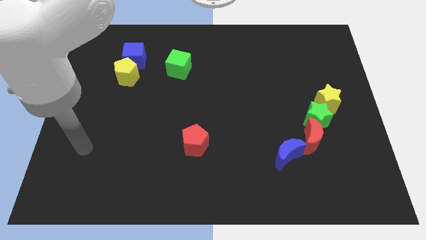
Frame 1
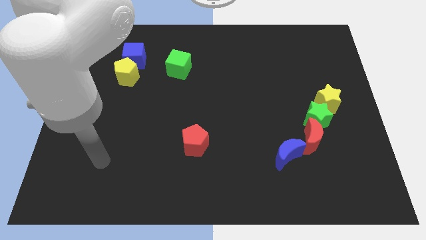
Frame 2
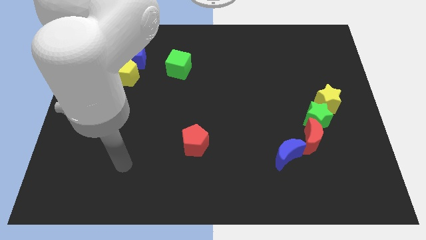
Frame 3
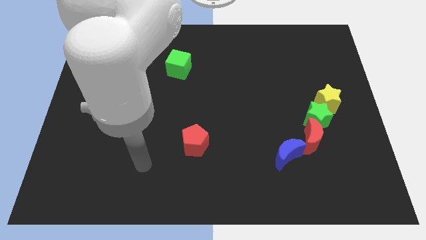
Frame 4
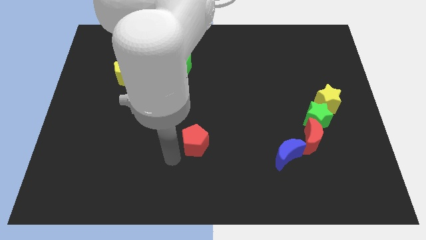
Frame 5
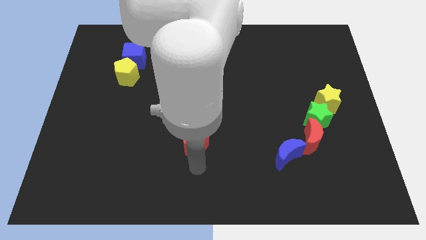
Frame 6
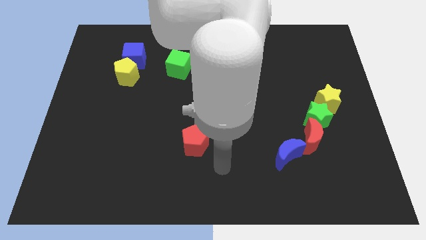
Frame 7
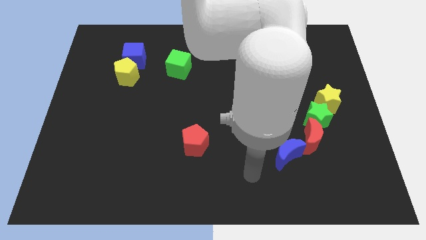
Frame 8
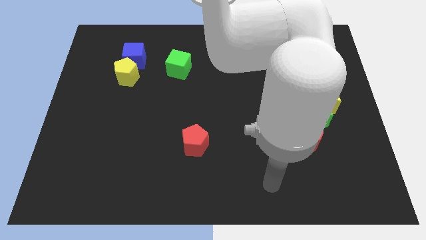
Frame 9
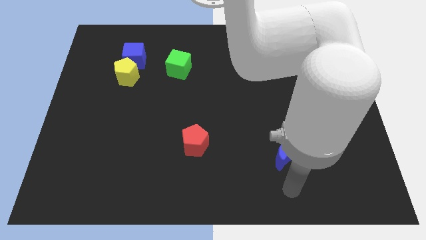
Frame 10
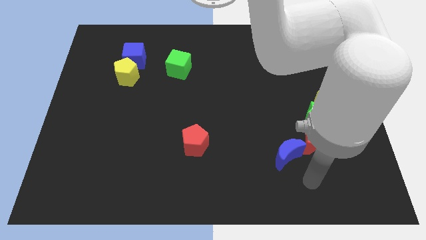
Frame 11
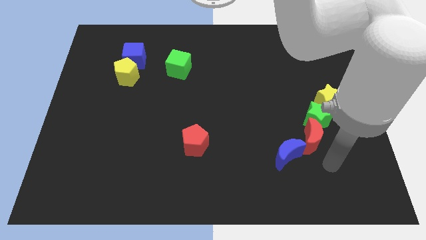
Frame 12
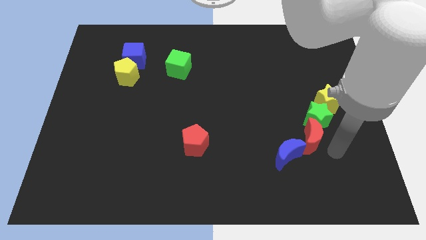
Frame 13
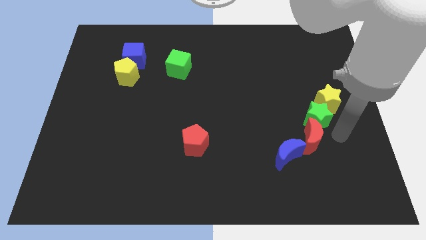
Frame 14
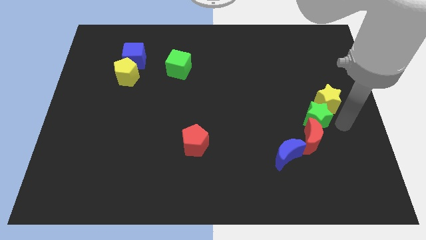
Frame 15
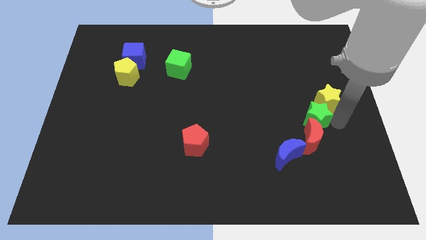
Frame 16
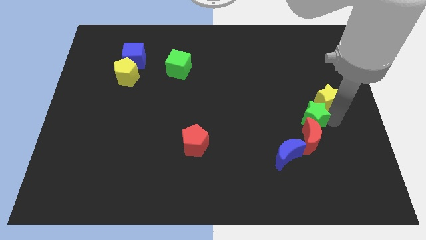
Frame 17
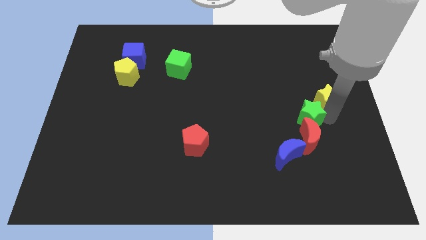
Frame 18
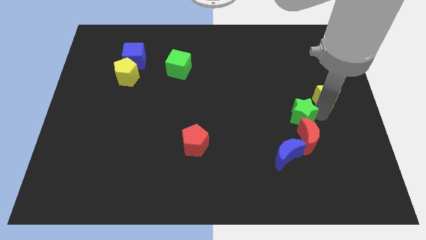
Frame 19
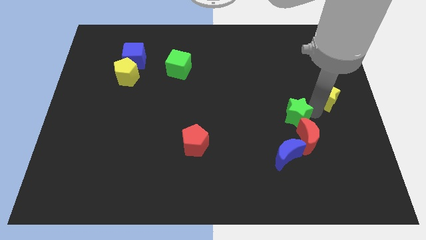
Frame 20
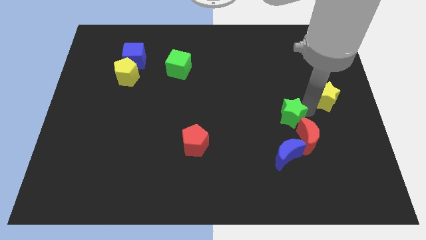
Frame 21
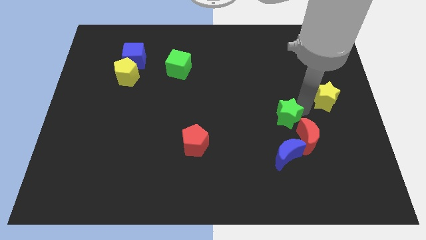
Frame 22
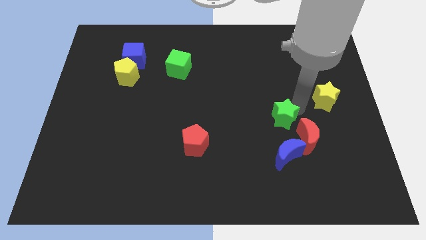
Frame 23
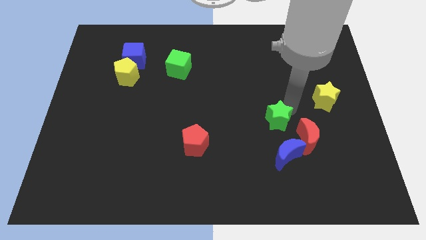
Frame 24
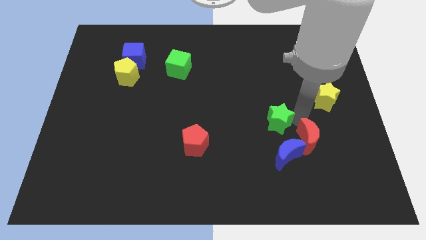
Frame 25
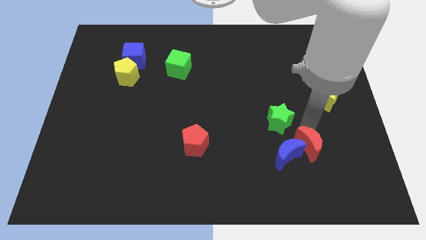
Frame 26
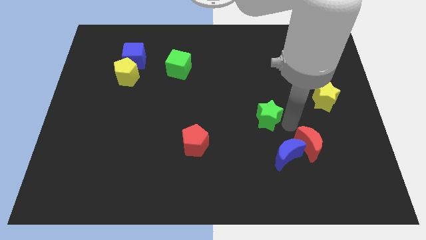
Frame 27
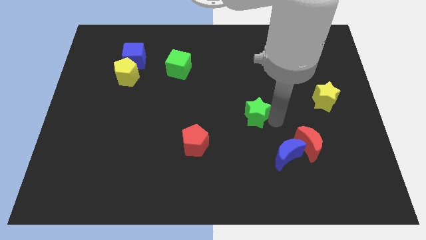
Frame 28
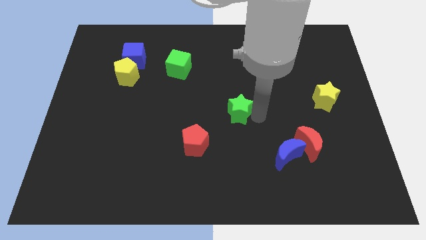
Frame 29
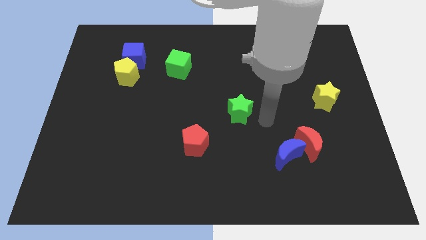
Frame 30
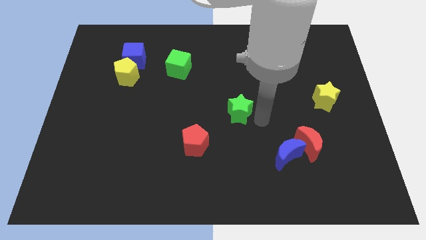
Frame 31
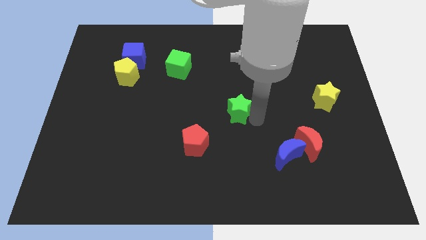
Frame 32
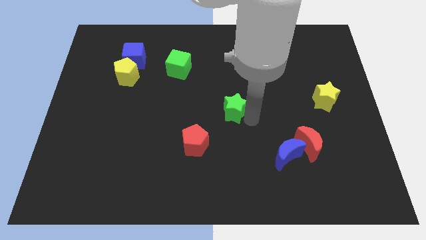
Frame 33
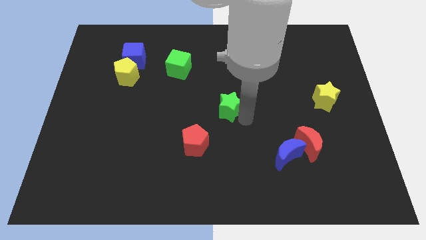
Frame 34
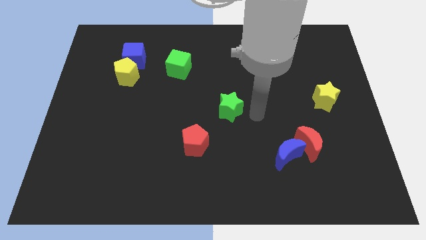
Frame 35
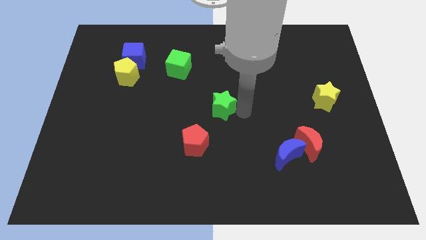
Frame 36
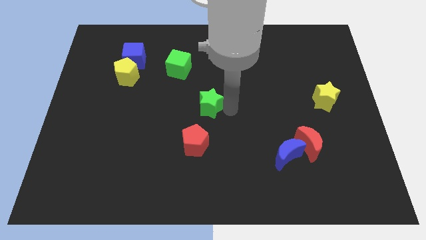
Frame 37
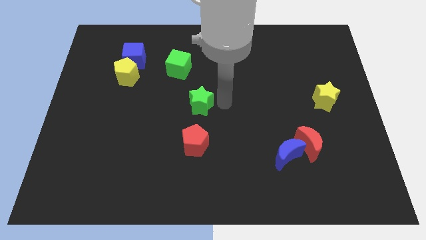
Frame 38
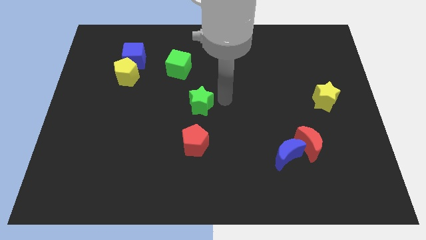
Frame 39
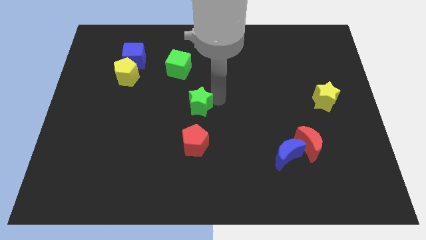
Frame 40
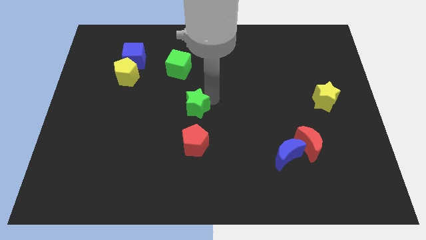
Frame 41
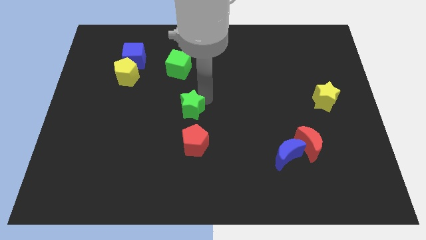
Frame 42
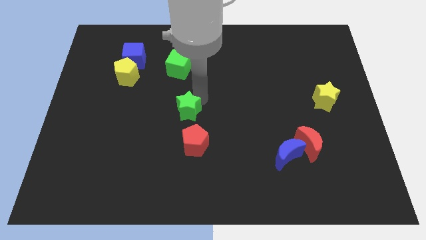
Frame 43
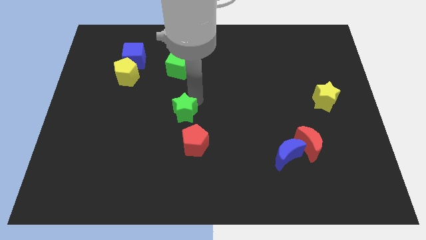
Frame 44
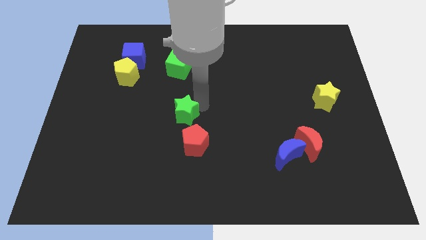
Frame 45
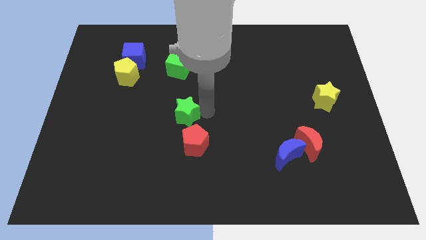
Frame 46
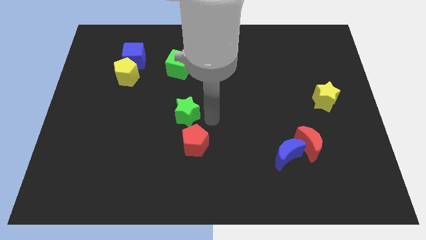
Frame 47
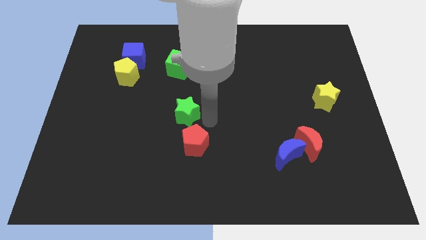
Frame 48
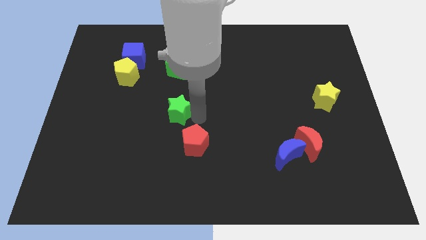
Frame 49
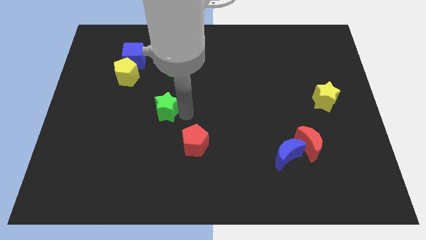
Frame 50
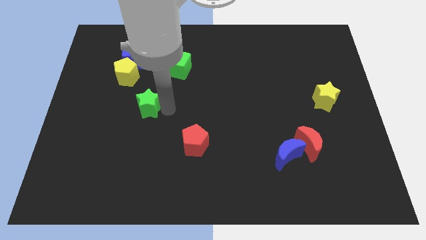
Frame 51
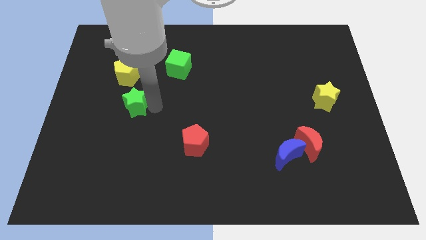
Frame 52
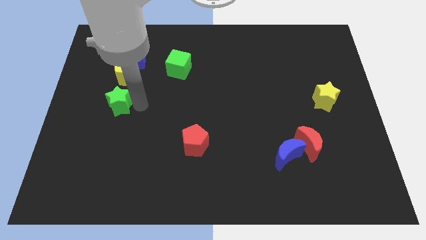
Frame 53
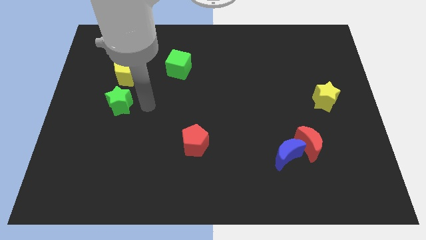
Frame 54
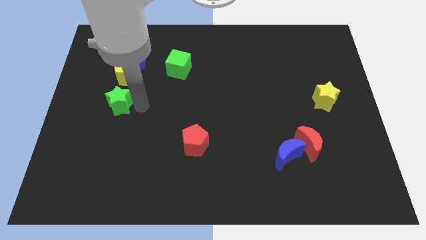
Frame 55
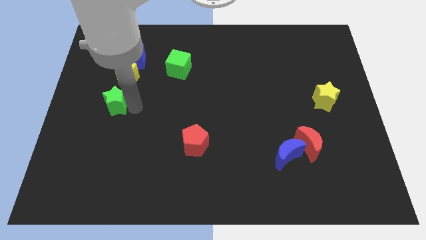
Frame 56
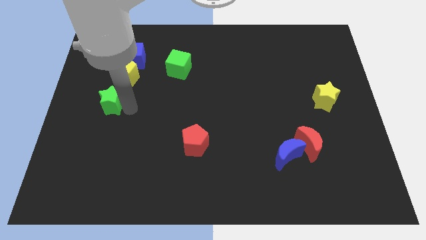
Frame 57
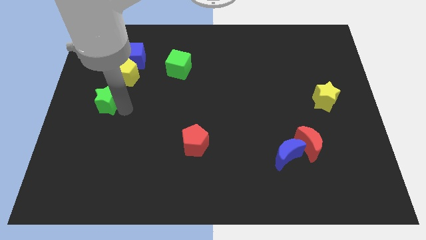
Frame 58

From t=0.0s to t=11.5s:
push the green star to the center left

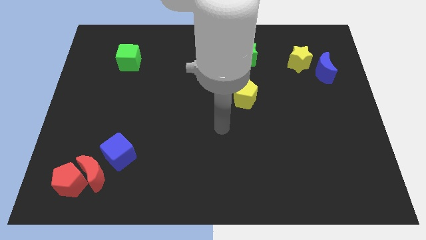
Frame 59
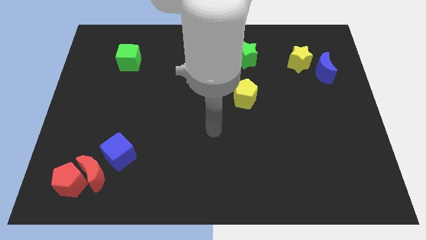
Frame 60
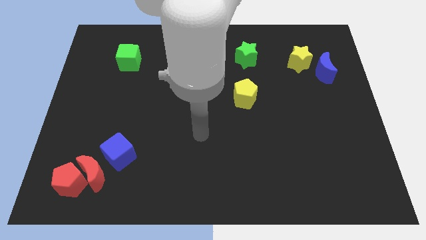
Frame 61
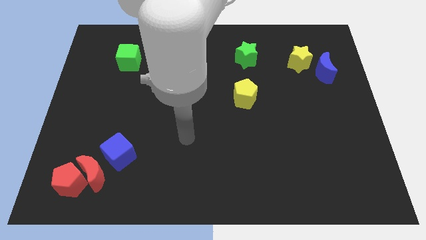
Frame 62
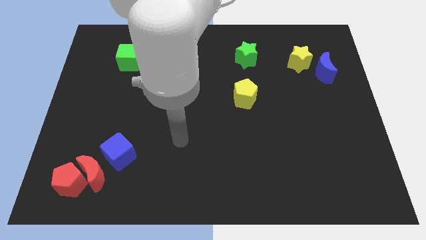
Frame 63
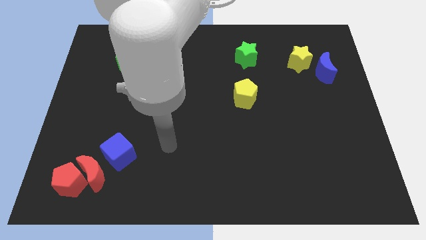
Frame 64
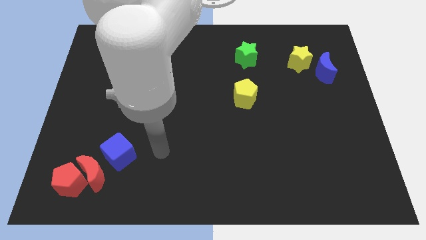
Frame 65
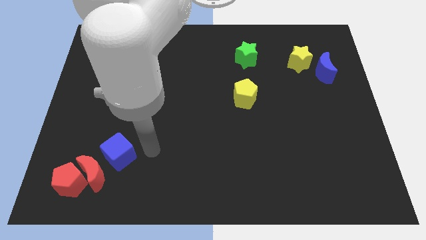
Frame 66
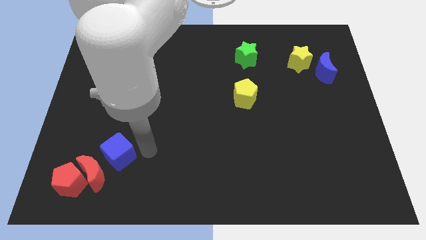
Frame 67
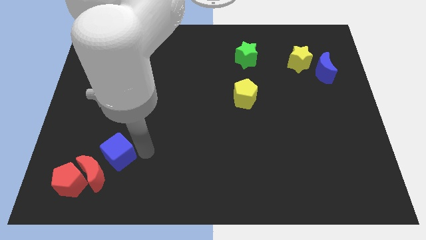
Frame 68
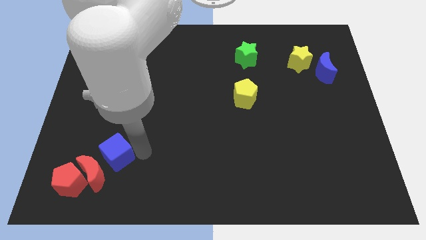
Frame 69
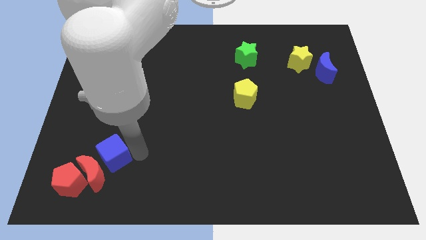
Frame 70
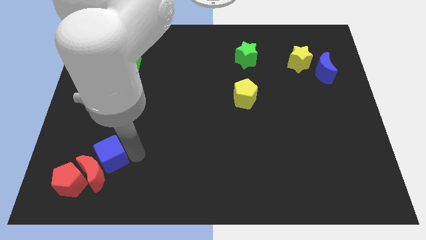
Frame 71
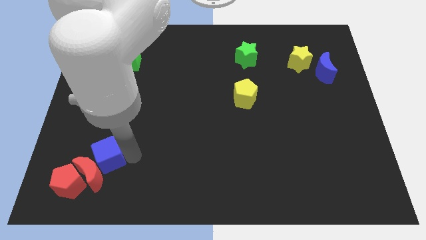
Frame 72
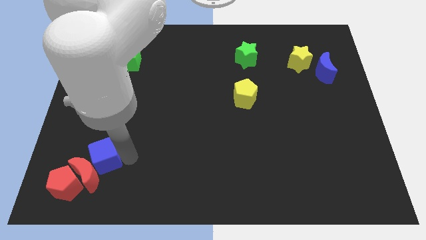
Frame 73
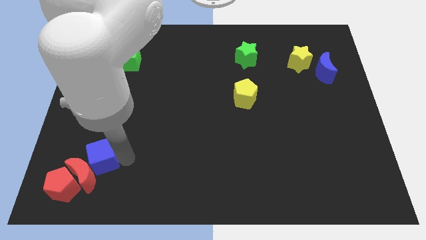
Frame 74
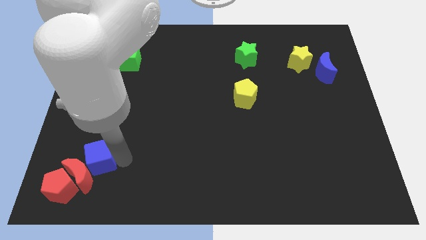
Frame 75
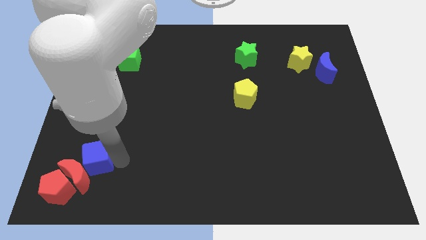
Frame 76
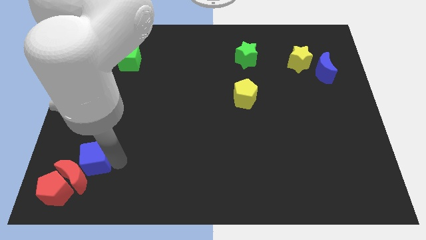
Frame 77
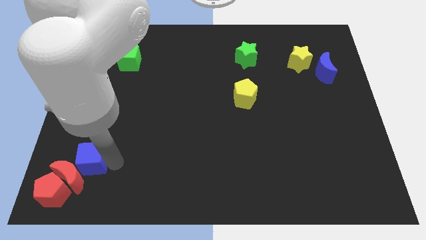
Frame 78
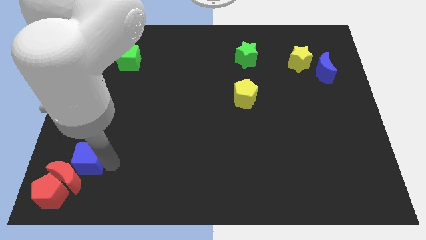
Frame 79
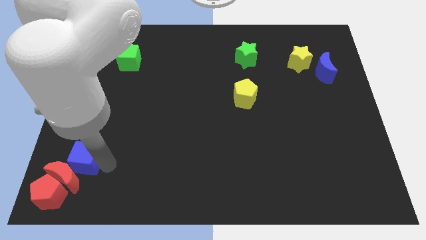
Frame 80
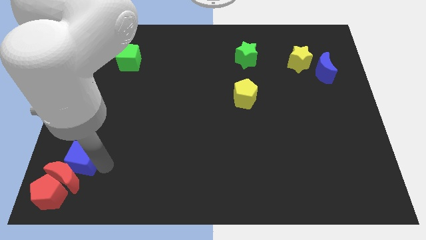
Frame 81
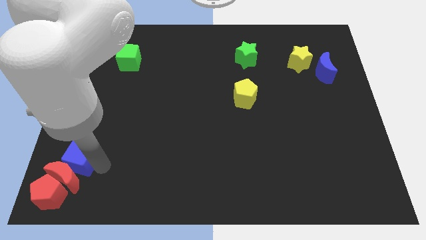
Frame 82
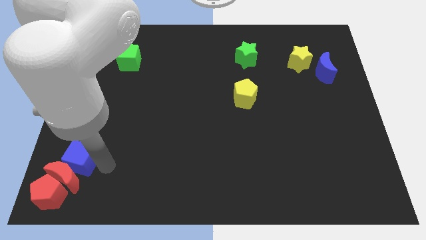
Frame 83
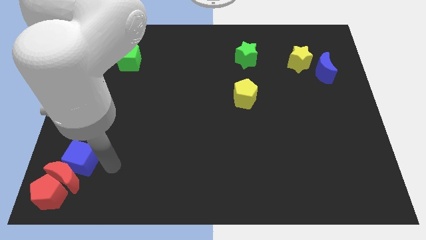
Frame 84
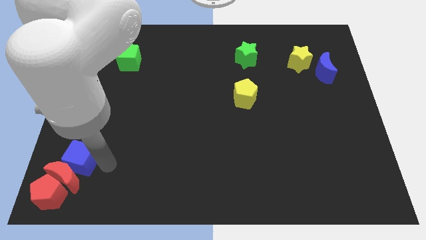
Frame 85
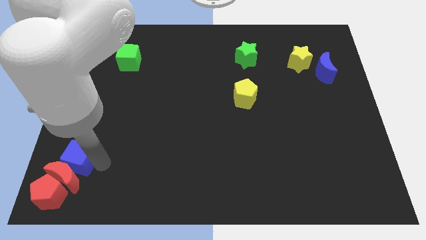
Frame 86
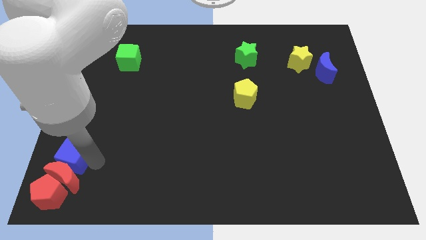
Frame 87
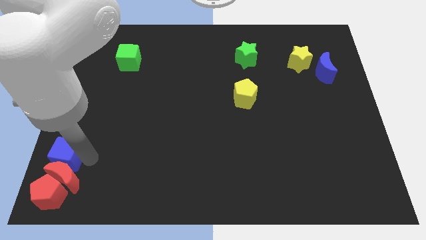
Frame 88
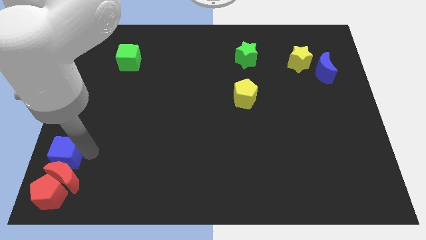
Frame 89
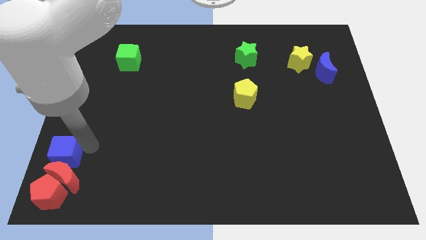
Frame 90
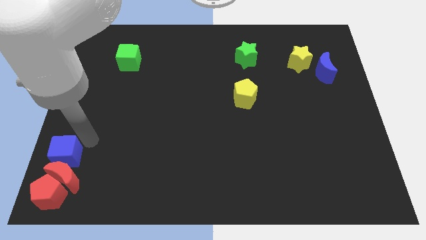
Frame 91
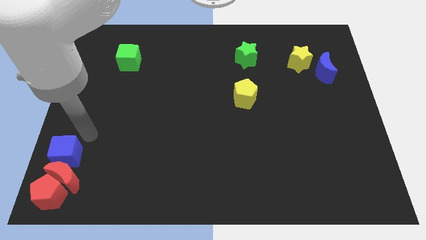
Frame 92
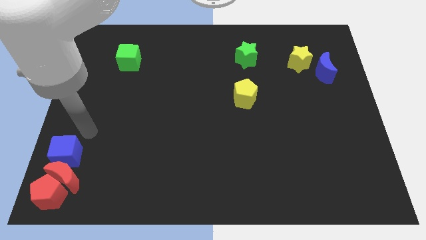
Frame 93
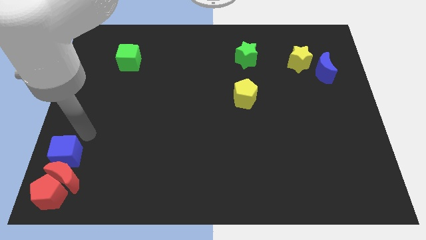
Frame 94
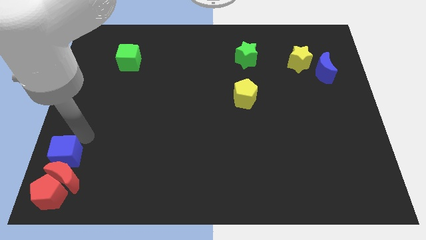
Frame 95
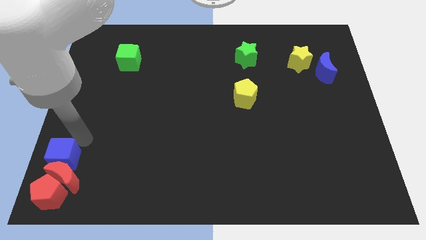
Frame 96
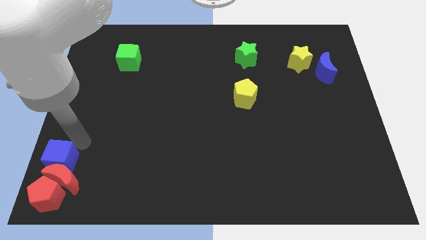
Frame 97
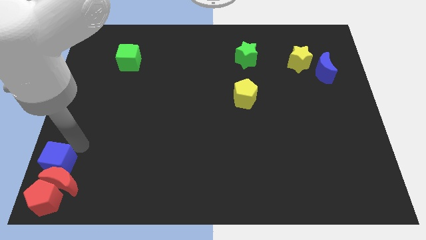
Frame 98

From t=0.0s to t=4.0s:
push the blue cube to the bottom left of the board
